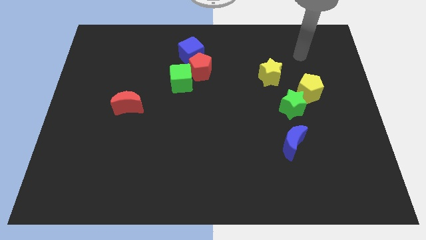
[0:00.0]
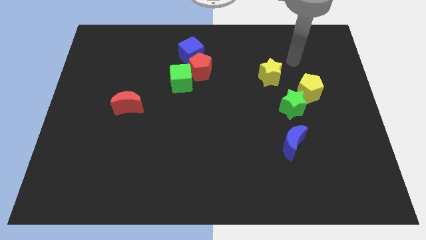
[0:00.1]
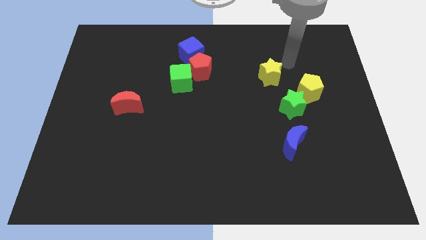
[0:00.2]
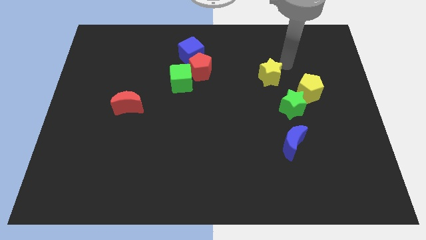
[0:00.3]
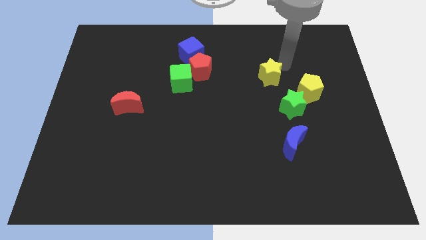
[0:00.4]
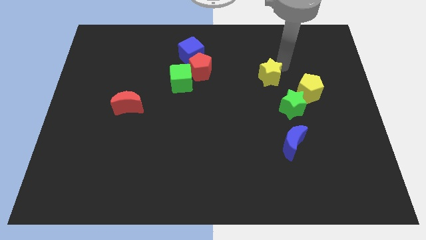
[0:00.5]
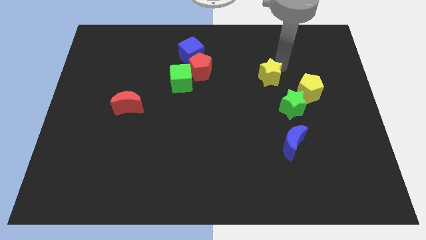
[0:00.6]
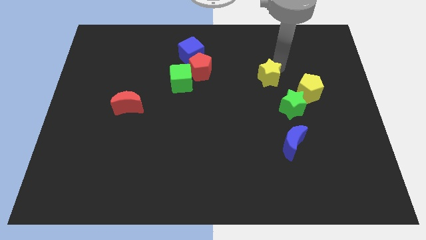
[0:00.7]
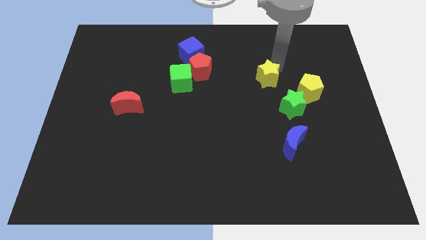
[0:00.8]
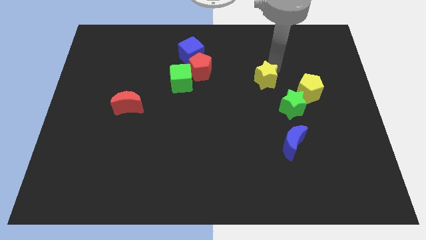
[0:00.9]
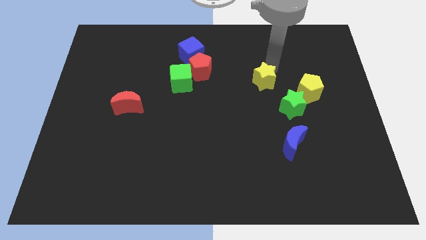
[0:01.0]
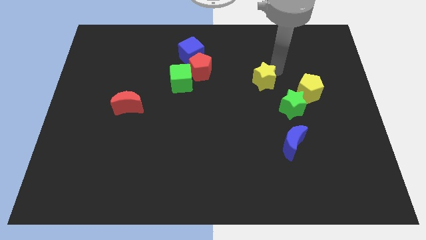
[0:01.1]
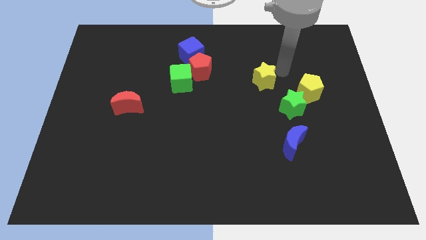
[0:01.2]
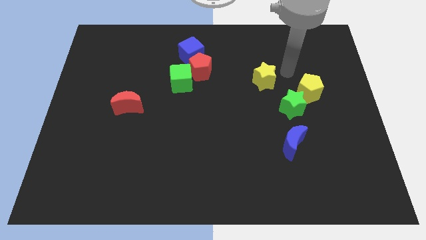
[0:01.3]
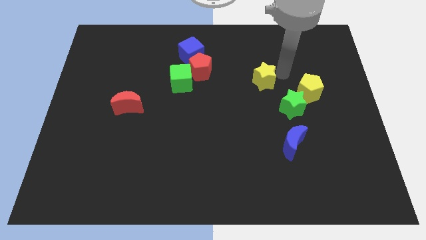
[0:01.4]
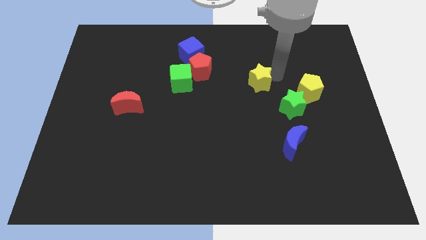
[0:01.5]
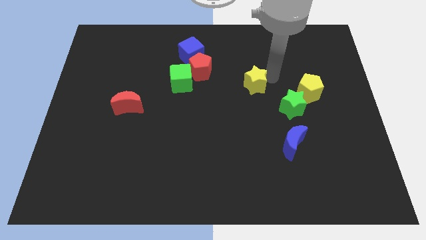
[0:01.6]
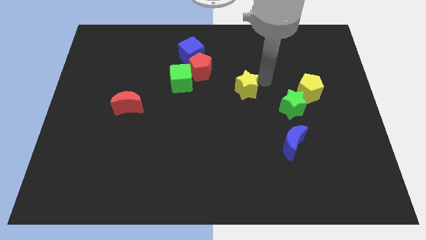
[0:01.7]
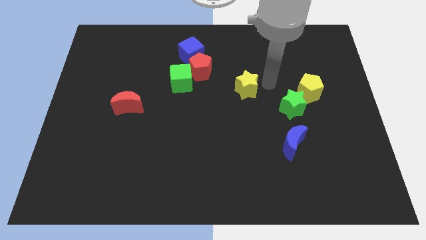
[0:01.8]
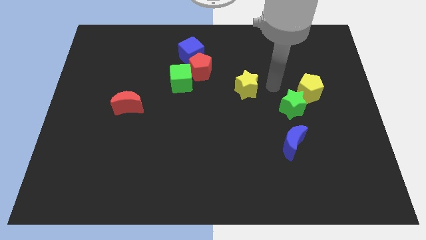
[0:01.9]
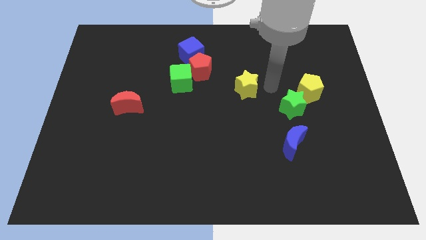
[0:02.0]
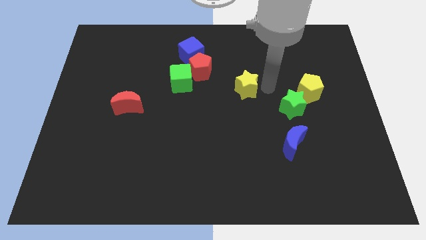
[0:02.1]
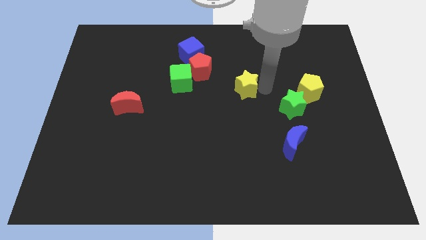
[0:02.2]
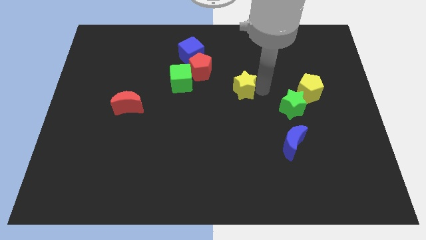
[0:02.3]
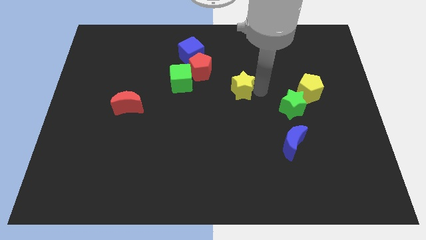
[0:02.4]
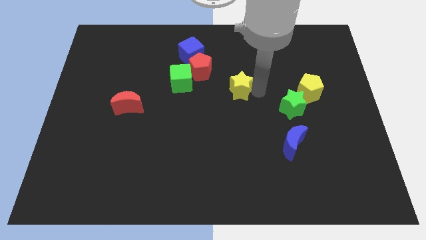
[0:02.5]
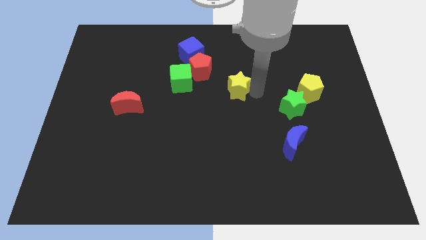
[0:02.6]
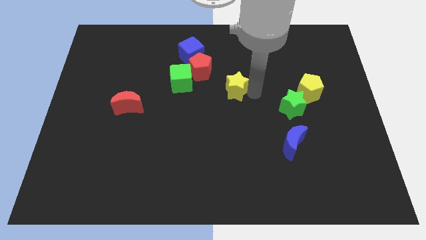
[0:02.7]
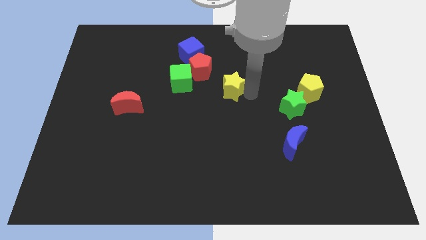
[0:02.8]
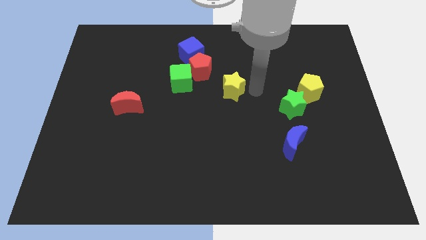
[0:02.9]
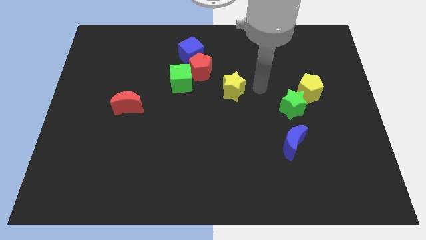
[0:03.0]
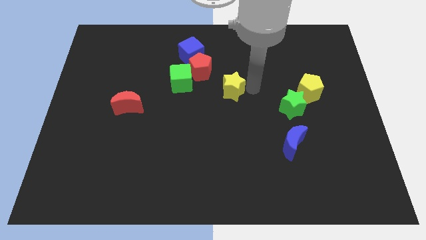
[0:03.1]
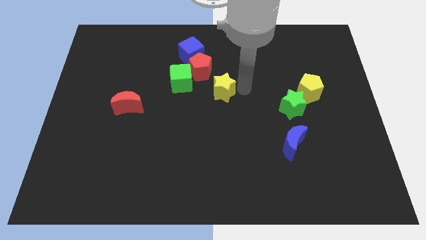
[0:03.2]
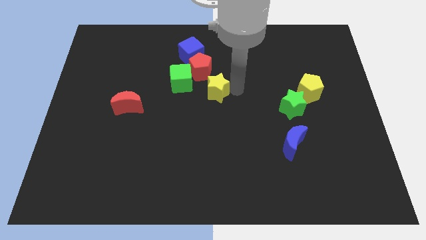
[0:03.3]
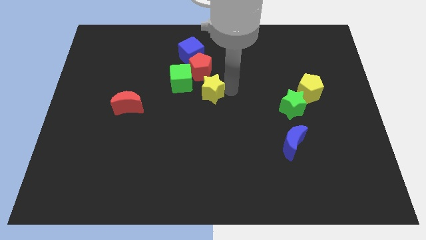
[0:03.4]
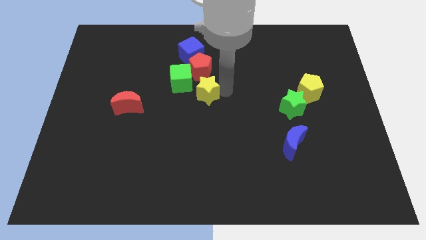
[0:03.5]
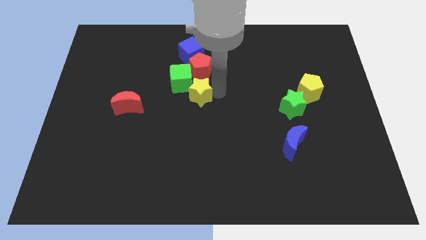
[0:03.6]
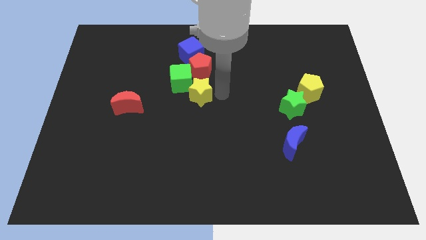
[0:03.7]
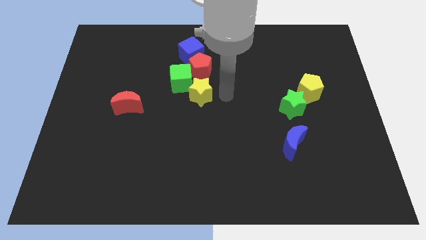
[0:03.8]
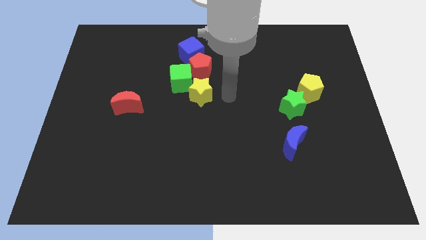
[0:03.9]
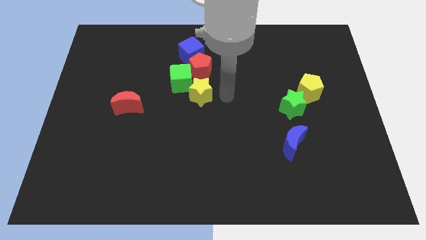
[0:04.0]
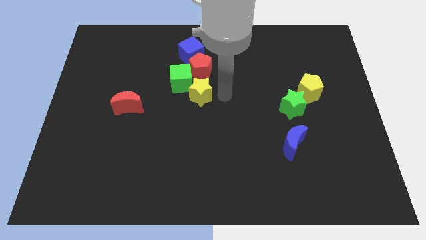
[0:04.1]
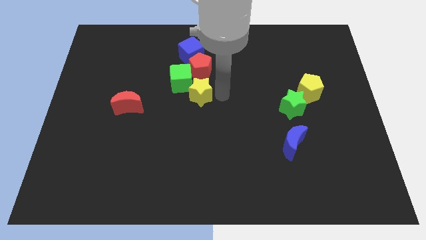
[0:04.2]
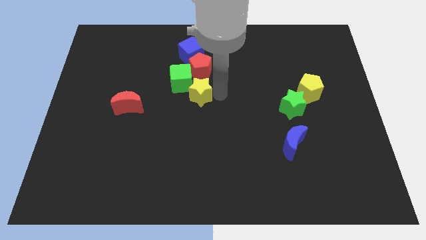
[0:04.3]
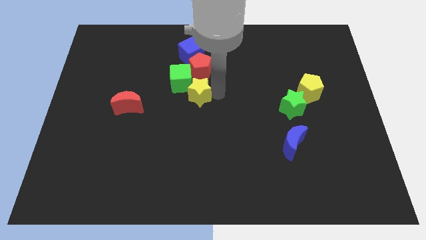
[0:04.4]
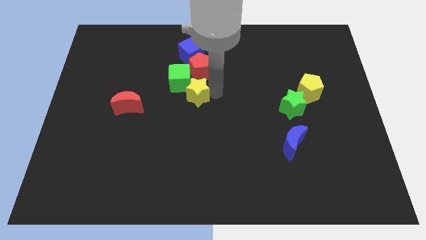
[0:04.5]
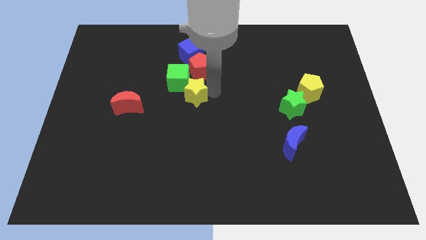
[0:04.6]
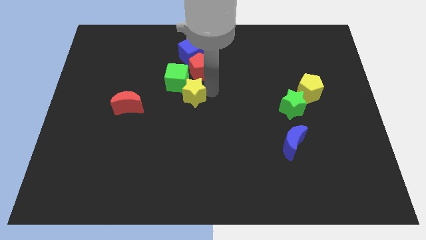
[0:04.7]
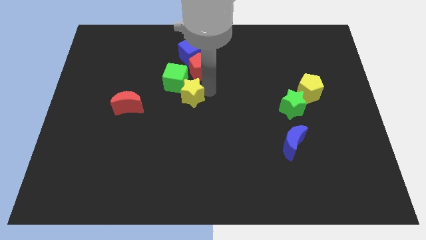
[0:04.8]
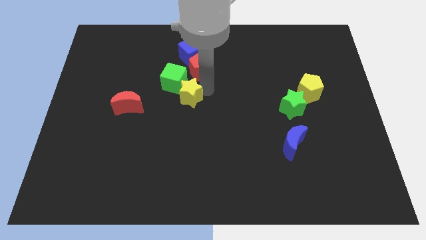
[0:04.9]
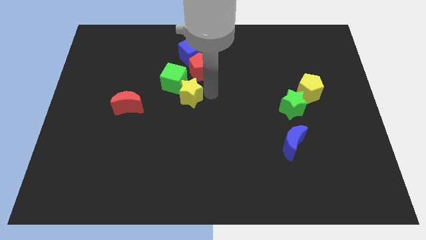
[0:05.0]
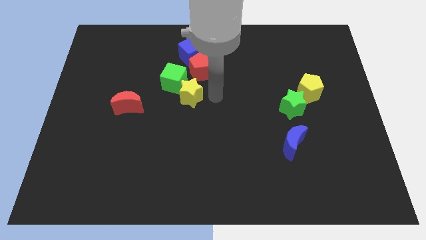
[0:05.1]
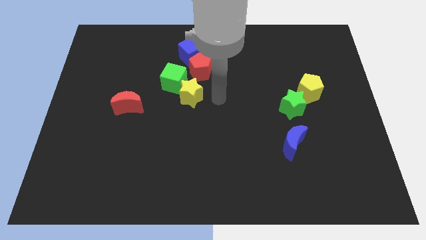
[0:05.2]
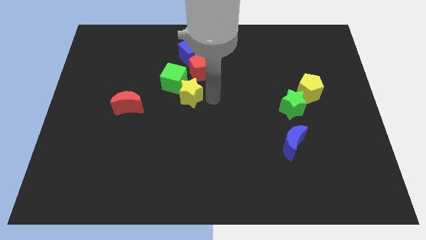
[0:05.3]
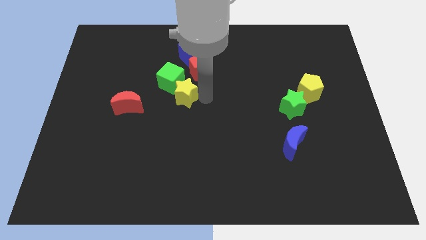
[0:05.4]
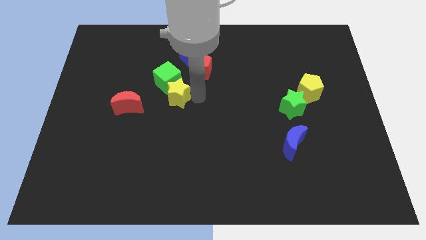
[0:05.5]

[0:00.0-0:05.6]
move the yellow star left

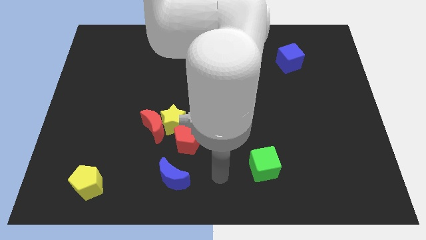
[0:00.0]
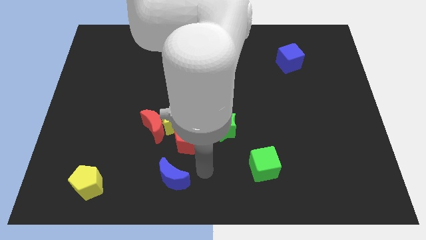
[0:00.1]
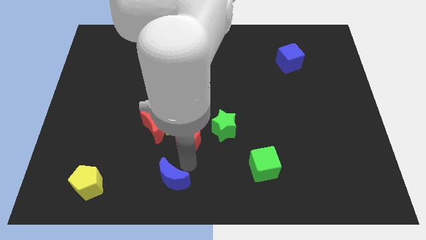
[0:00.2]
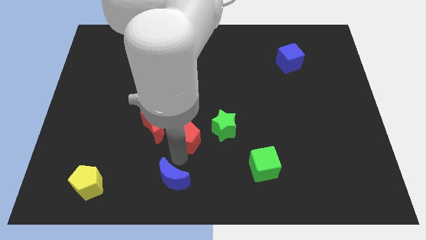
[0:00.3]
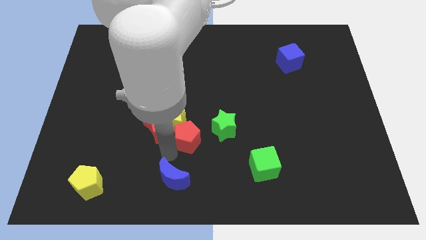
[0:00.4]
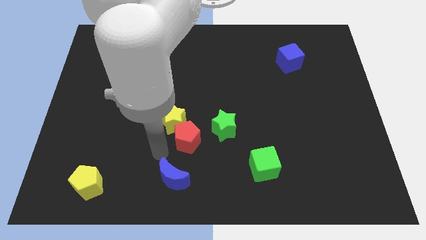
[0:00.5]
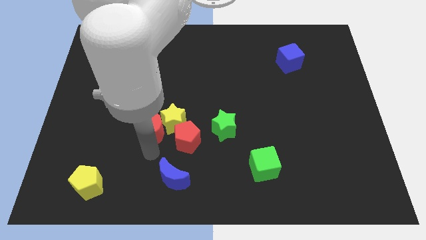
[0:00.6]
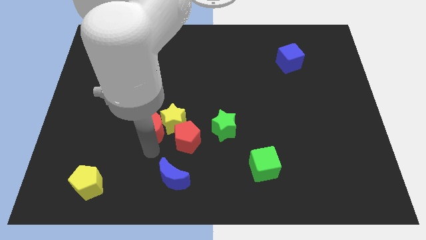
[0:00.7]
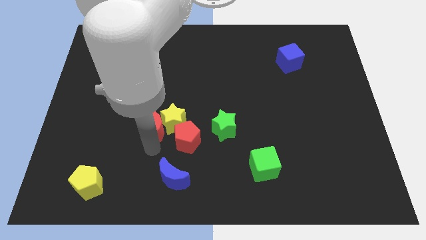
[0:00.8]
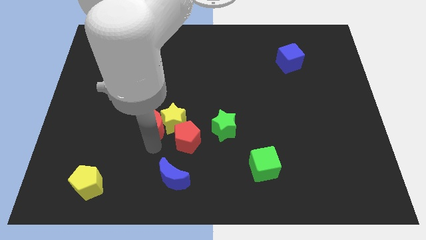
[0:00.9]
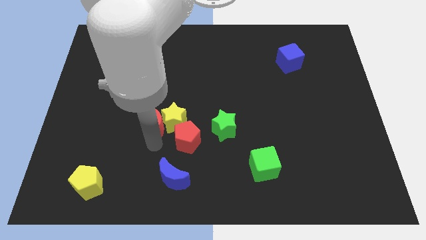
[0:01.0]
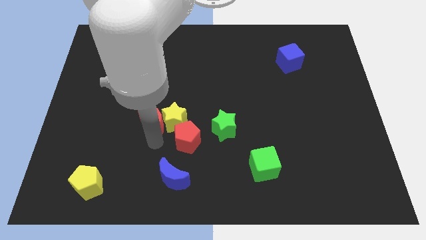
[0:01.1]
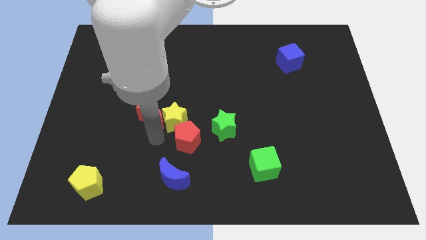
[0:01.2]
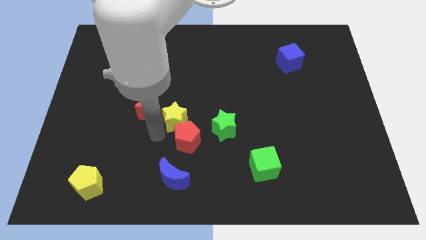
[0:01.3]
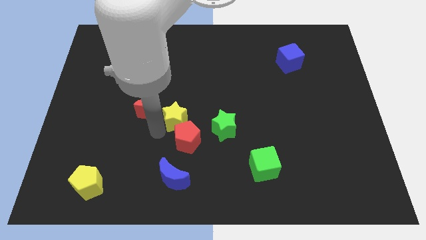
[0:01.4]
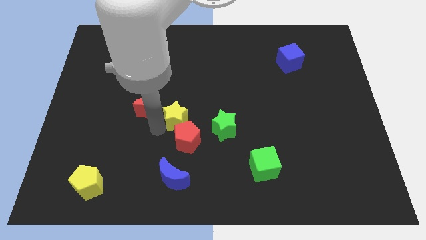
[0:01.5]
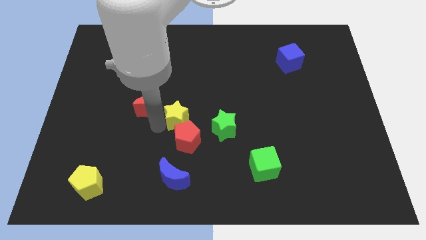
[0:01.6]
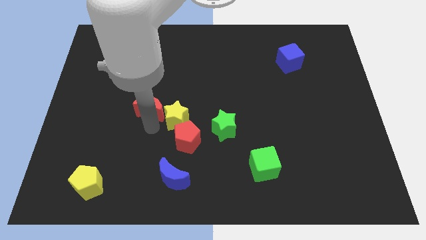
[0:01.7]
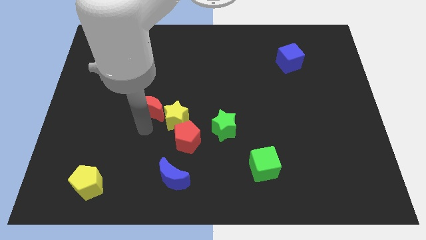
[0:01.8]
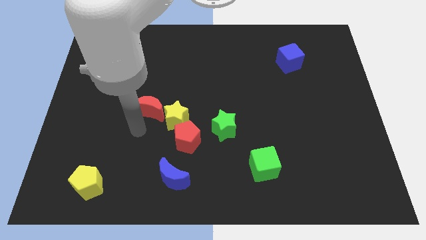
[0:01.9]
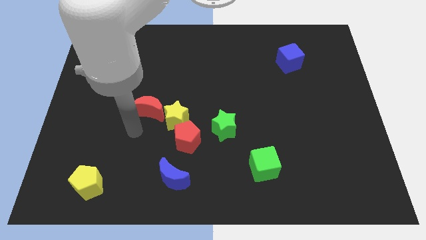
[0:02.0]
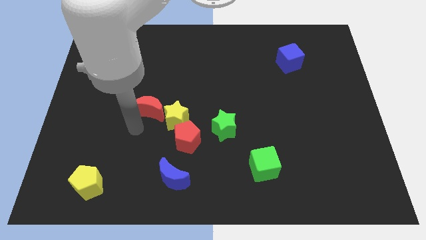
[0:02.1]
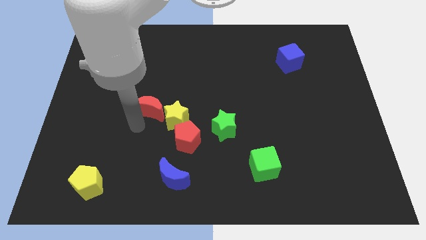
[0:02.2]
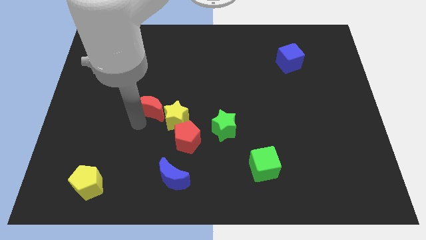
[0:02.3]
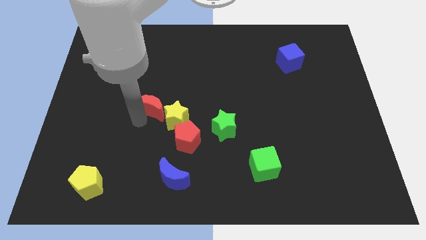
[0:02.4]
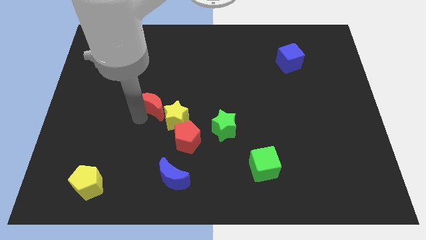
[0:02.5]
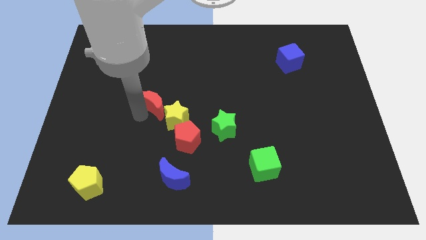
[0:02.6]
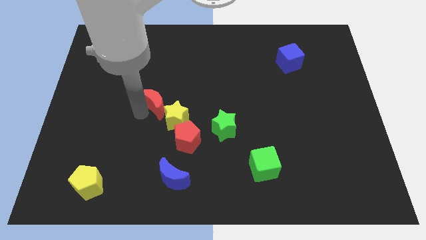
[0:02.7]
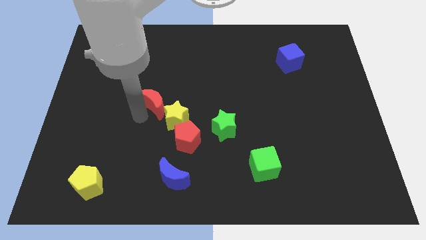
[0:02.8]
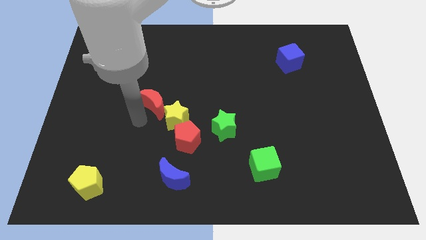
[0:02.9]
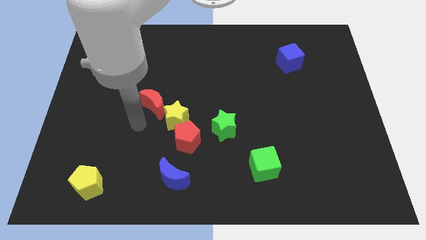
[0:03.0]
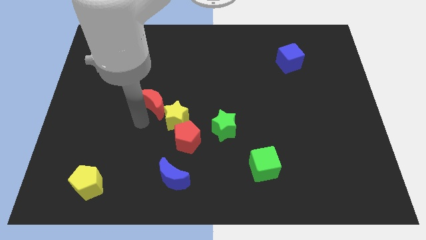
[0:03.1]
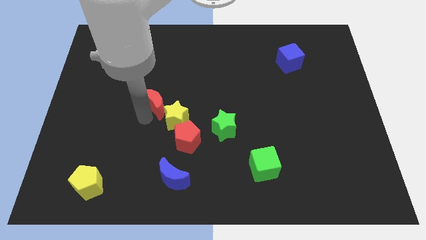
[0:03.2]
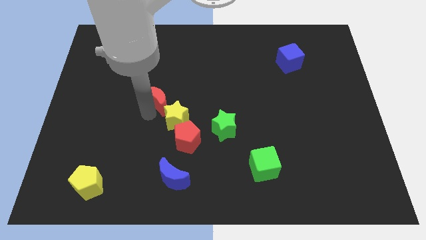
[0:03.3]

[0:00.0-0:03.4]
move the red moon a little upwards
